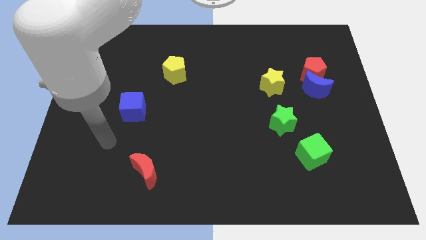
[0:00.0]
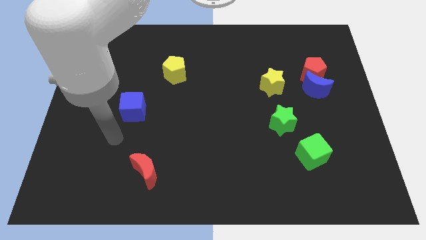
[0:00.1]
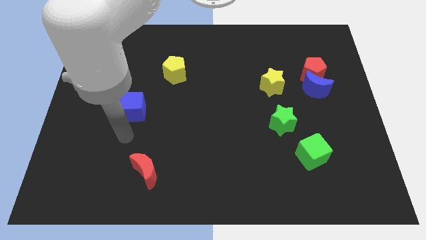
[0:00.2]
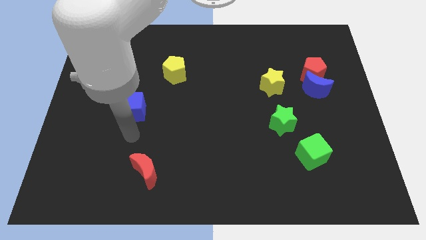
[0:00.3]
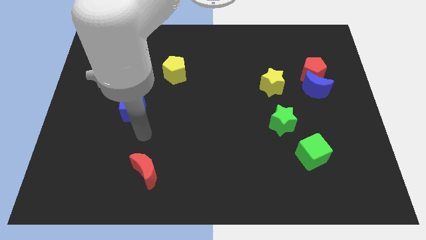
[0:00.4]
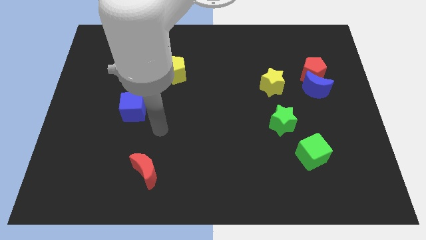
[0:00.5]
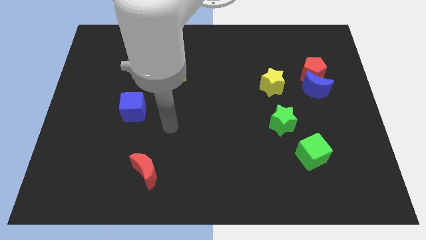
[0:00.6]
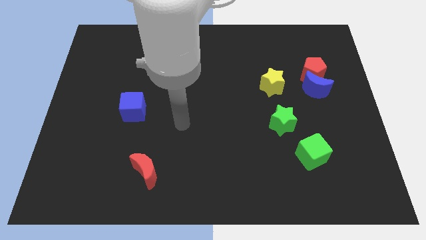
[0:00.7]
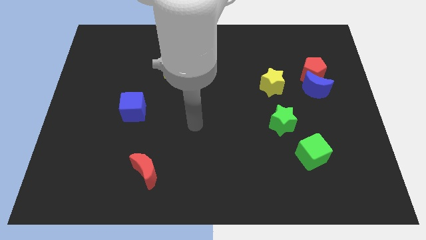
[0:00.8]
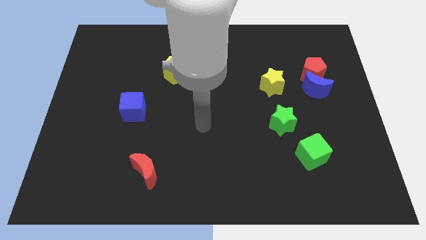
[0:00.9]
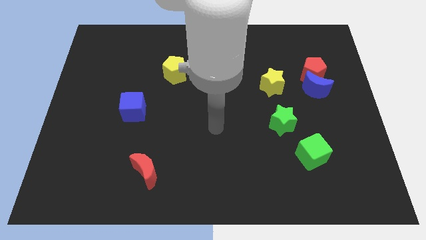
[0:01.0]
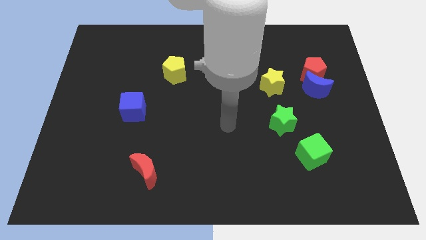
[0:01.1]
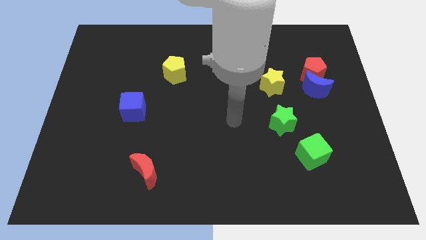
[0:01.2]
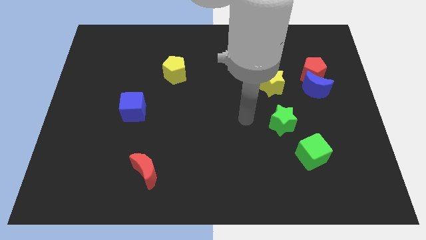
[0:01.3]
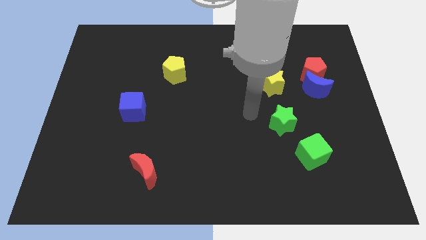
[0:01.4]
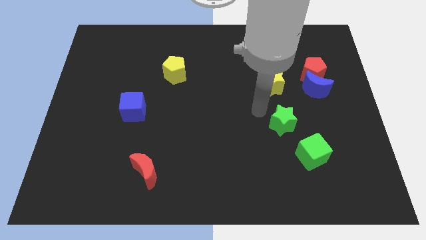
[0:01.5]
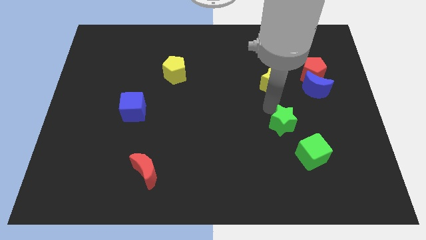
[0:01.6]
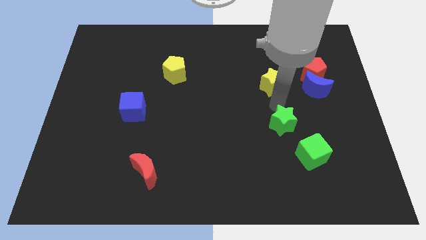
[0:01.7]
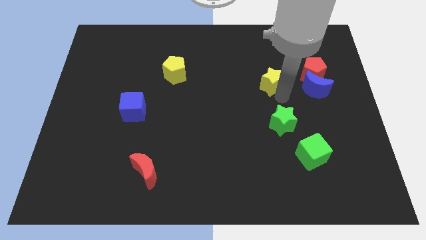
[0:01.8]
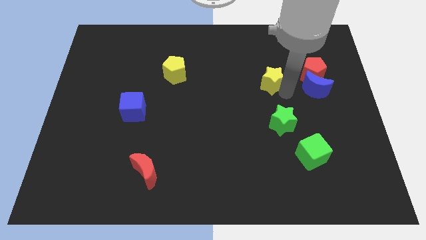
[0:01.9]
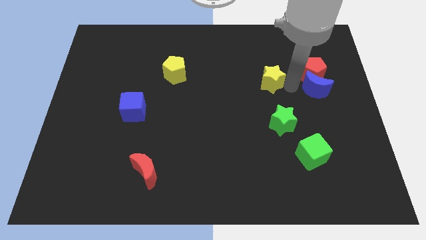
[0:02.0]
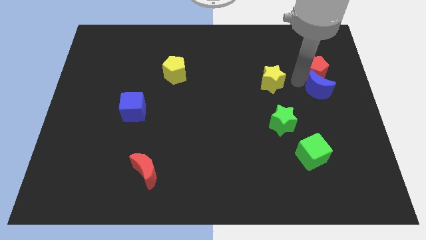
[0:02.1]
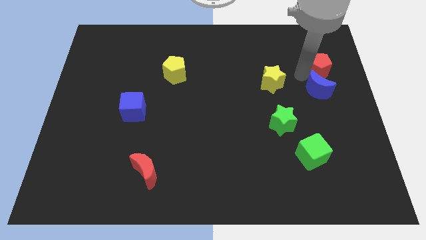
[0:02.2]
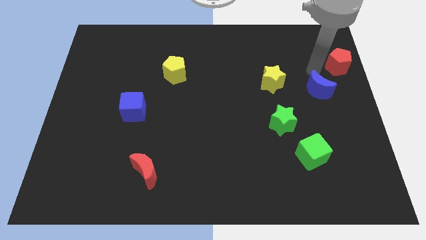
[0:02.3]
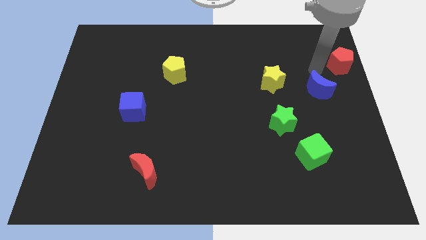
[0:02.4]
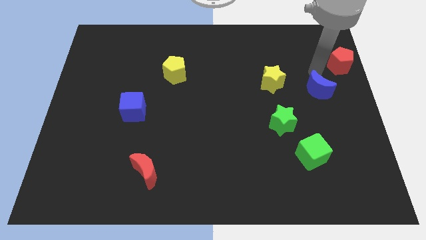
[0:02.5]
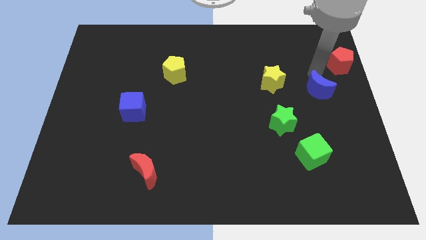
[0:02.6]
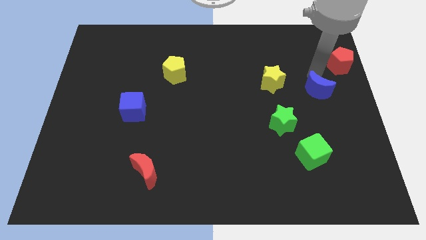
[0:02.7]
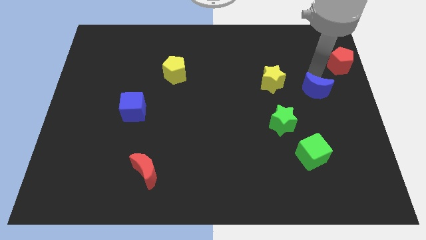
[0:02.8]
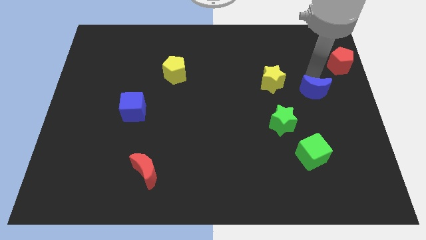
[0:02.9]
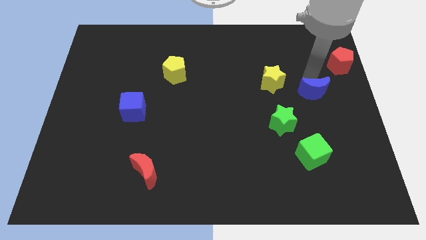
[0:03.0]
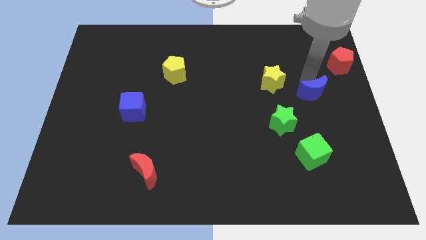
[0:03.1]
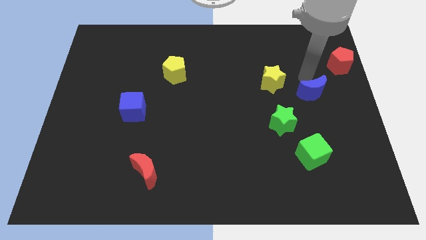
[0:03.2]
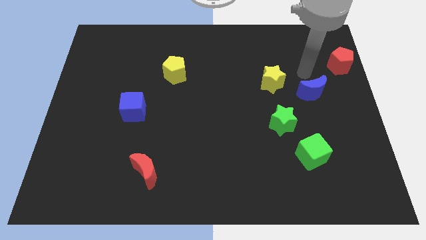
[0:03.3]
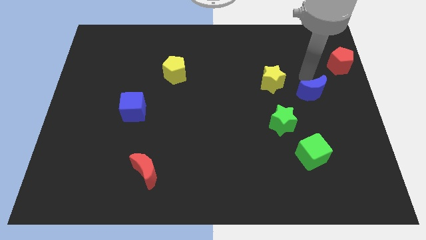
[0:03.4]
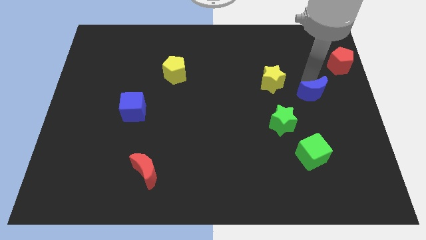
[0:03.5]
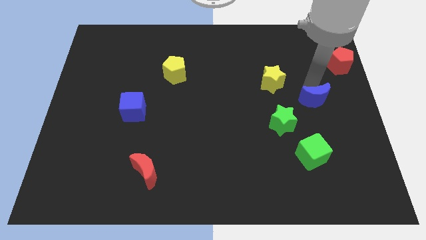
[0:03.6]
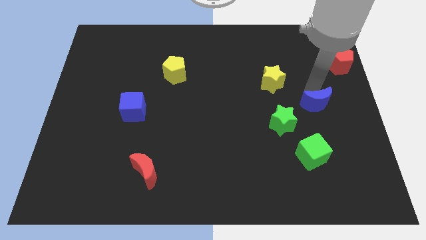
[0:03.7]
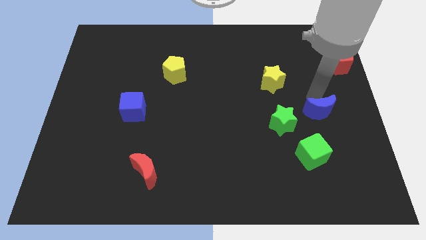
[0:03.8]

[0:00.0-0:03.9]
slightly move the blue moon down

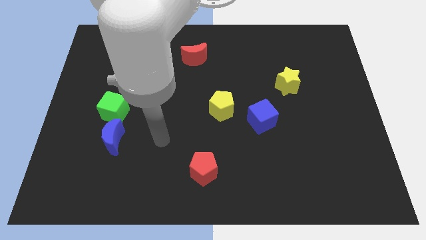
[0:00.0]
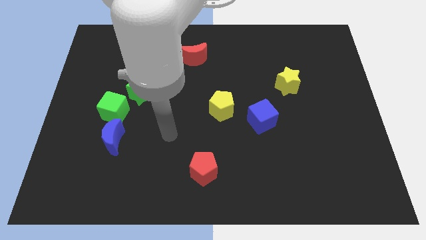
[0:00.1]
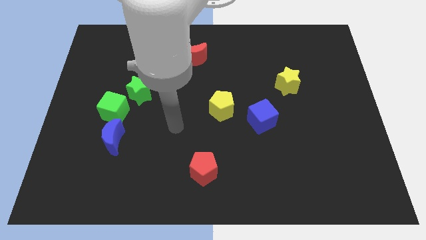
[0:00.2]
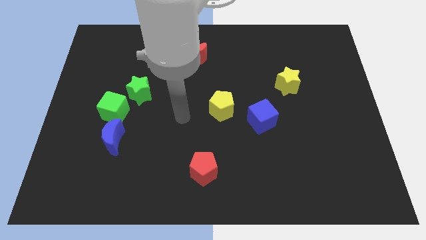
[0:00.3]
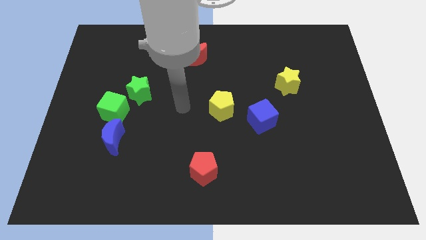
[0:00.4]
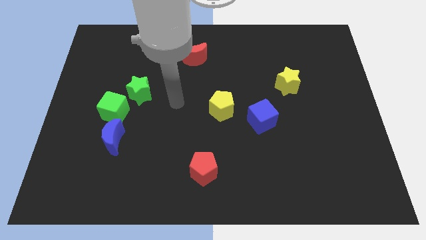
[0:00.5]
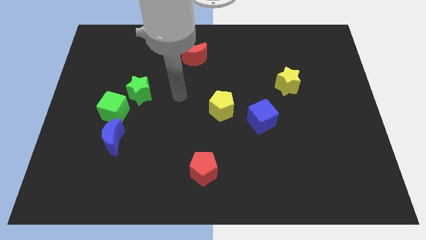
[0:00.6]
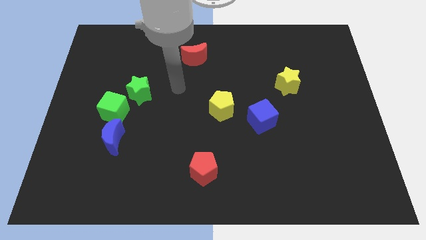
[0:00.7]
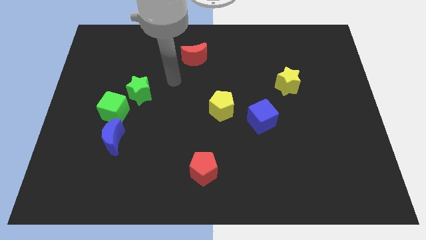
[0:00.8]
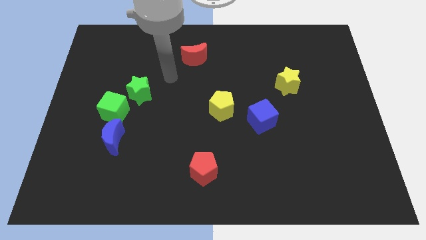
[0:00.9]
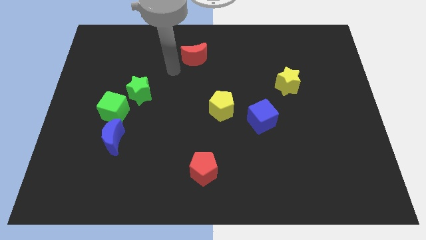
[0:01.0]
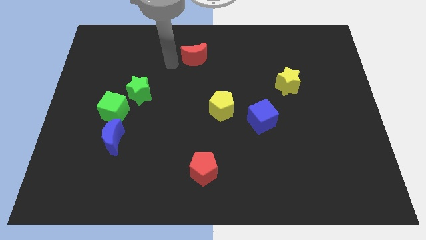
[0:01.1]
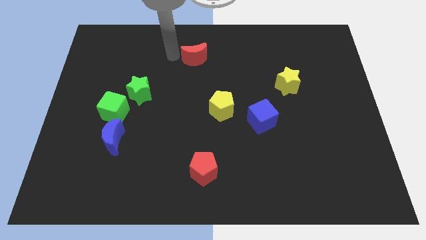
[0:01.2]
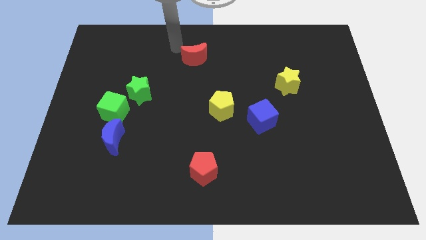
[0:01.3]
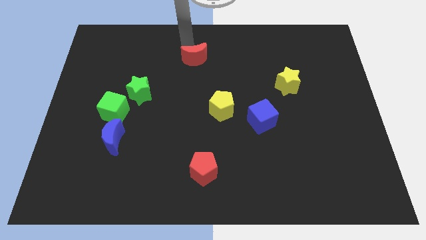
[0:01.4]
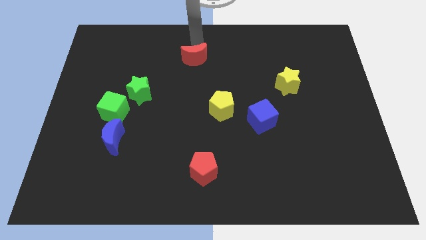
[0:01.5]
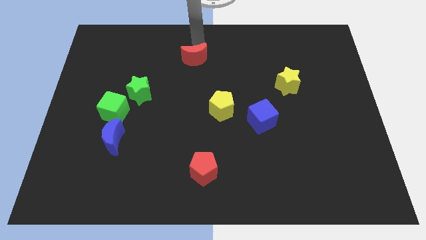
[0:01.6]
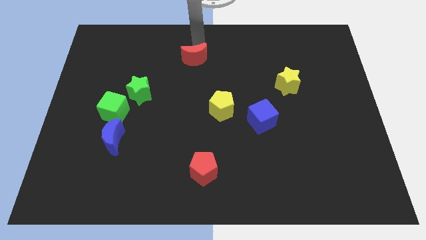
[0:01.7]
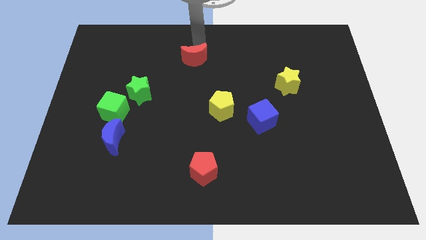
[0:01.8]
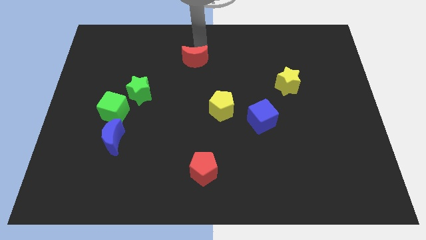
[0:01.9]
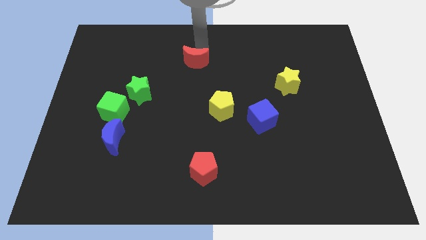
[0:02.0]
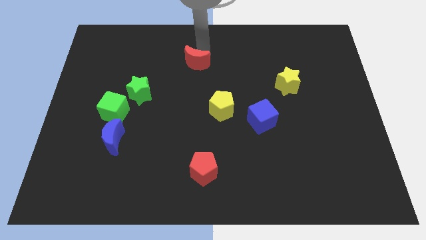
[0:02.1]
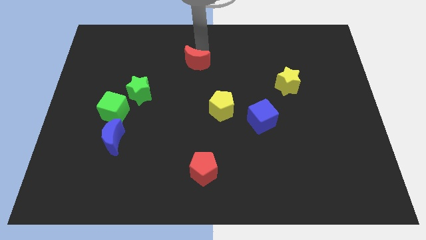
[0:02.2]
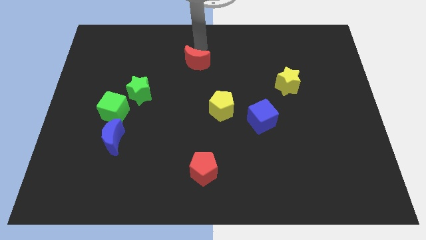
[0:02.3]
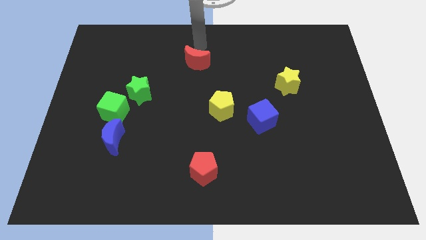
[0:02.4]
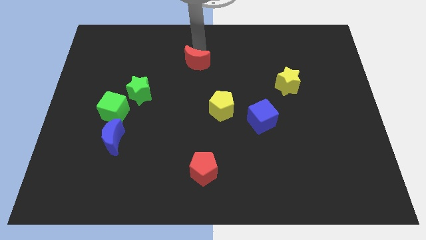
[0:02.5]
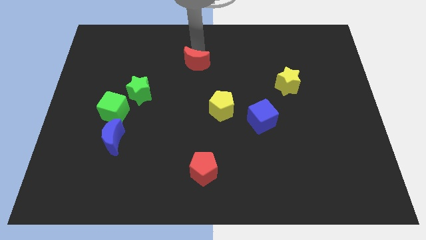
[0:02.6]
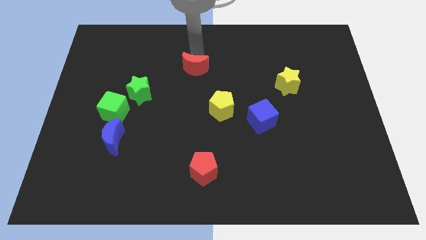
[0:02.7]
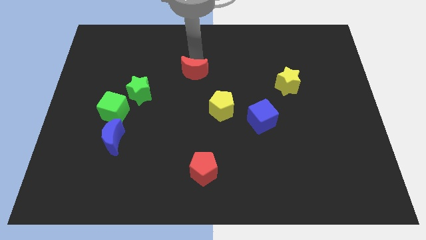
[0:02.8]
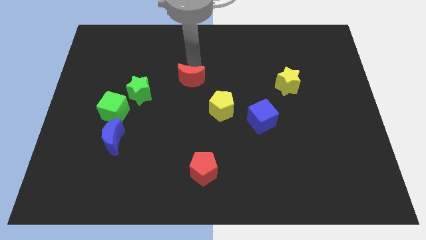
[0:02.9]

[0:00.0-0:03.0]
slightly slide the red moon down

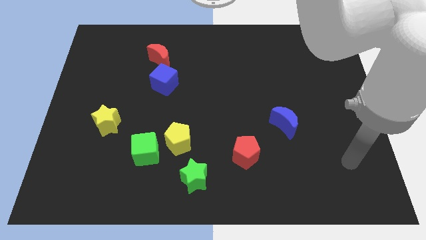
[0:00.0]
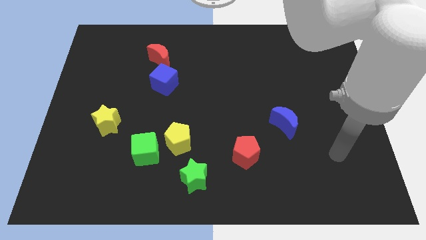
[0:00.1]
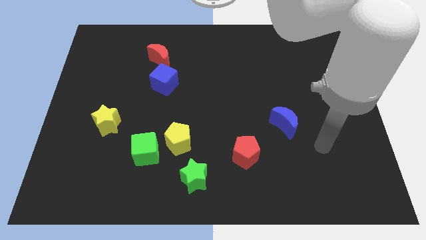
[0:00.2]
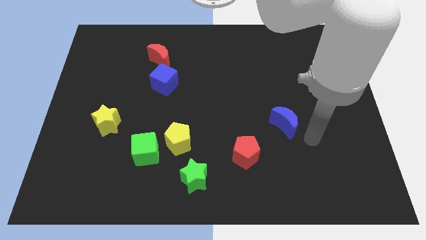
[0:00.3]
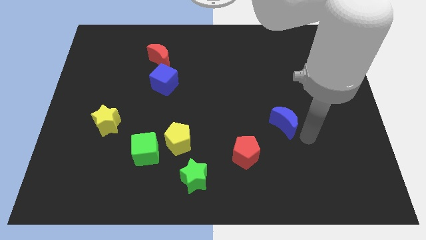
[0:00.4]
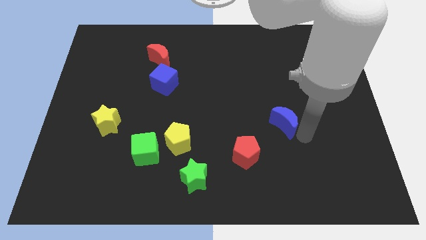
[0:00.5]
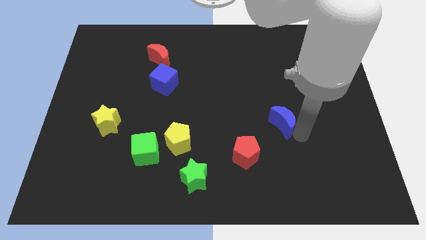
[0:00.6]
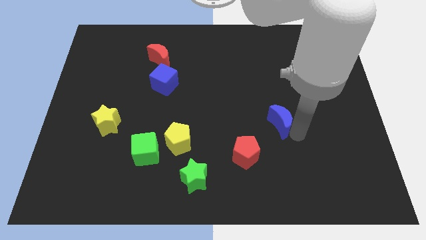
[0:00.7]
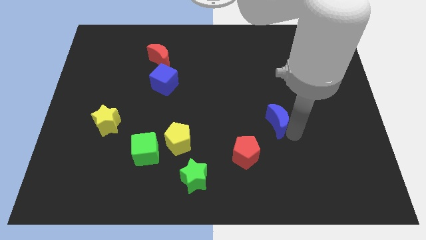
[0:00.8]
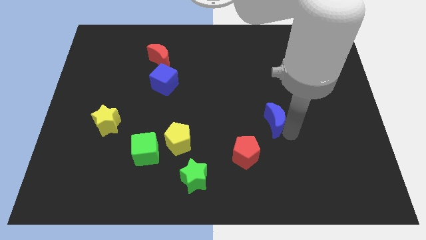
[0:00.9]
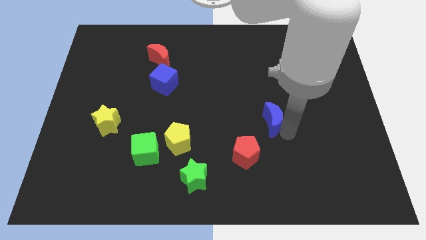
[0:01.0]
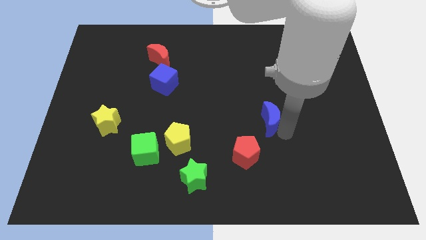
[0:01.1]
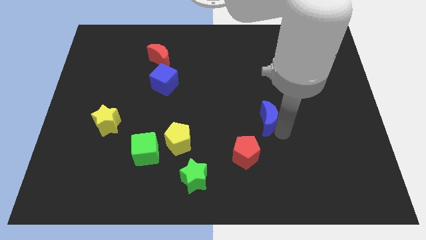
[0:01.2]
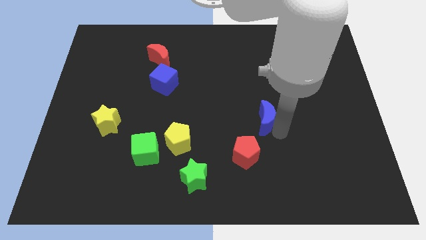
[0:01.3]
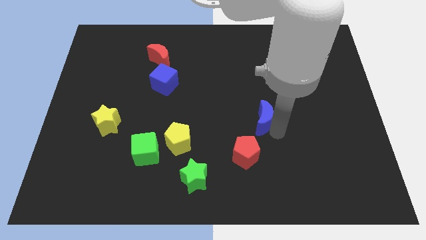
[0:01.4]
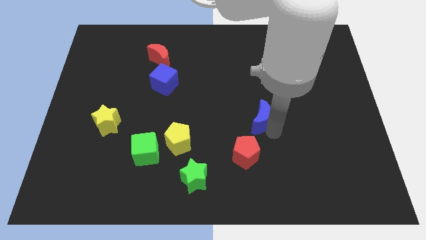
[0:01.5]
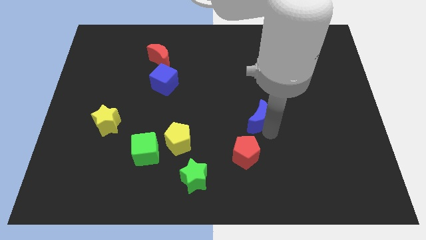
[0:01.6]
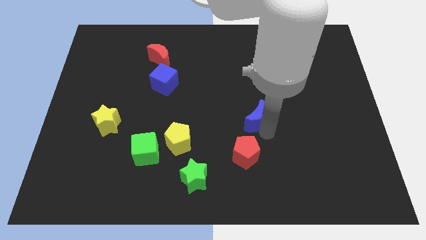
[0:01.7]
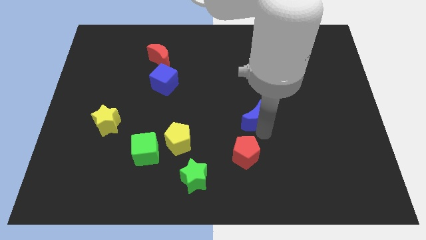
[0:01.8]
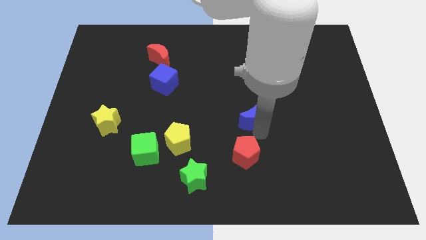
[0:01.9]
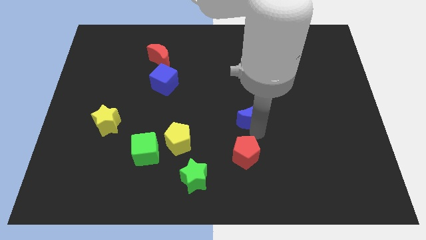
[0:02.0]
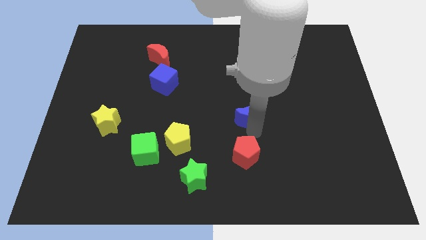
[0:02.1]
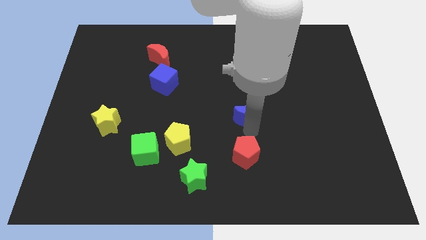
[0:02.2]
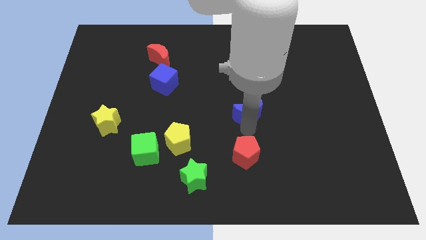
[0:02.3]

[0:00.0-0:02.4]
push the blue moon up and then to the left a bit
